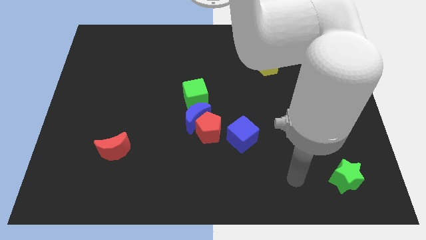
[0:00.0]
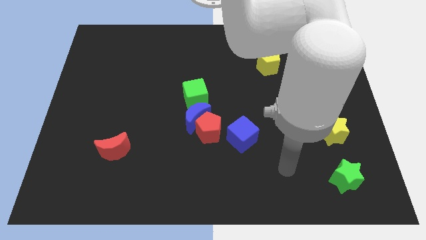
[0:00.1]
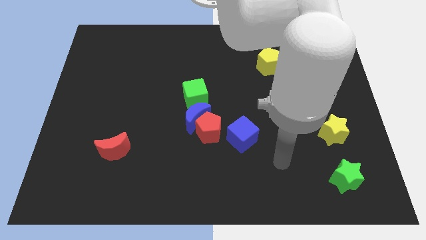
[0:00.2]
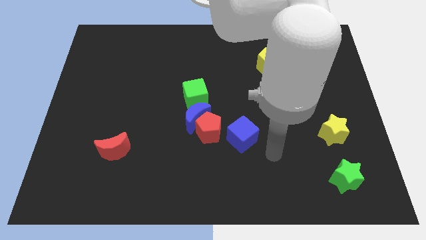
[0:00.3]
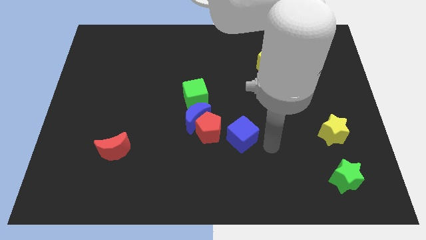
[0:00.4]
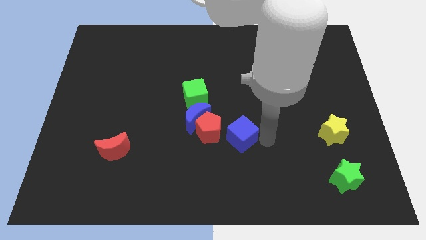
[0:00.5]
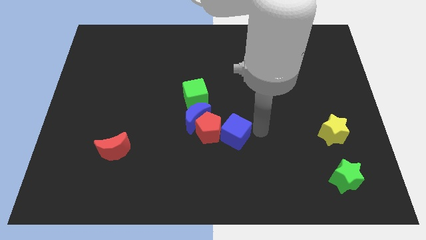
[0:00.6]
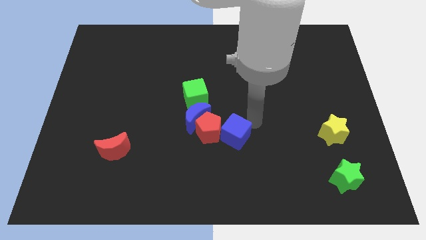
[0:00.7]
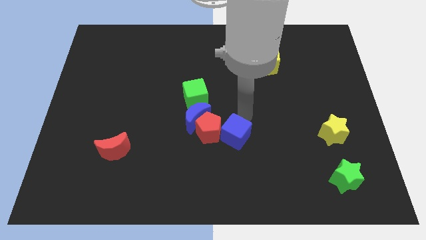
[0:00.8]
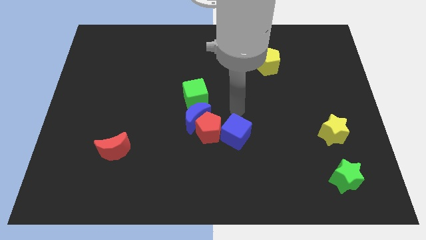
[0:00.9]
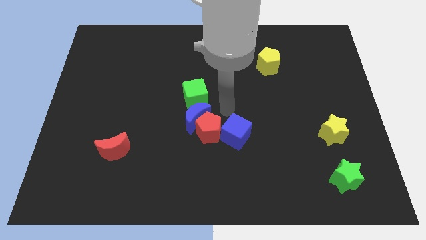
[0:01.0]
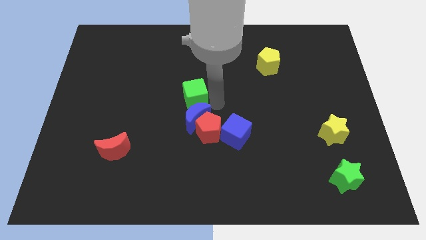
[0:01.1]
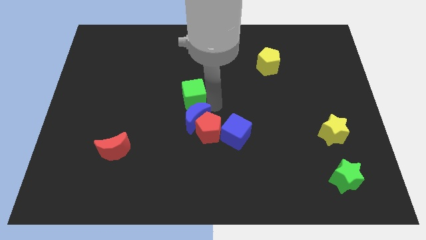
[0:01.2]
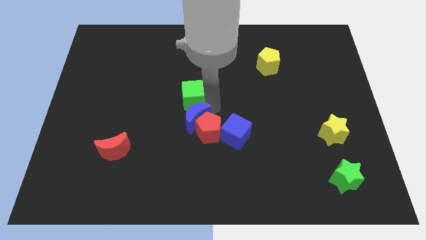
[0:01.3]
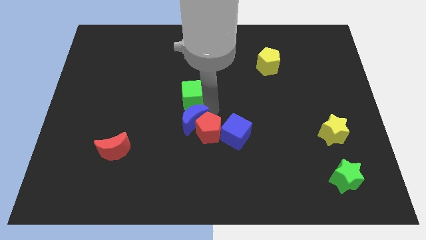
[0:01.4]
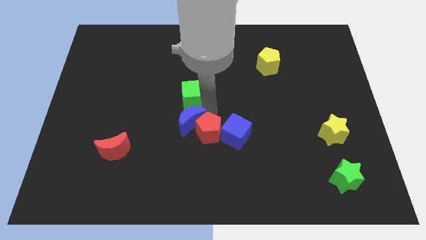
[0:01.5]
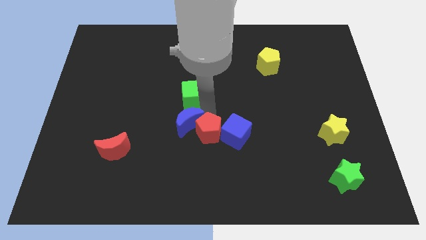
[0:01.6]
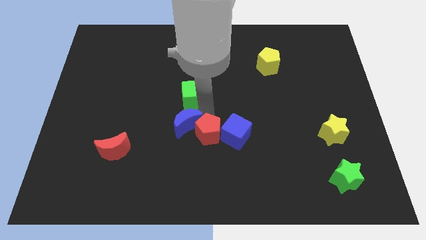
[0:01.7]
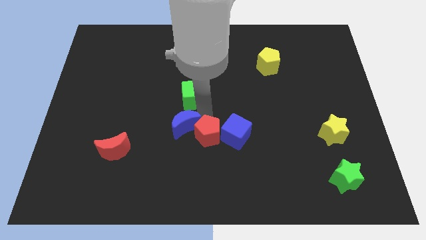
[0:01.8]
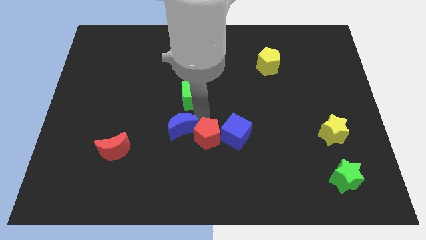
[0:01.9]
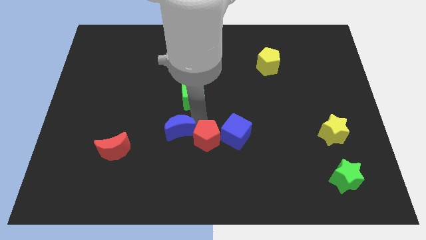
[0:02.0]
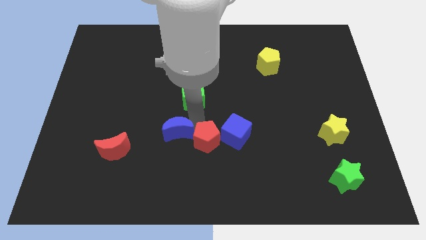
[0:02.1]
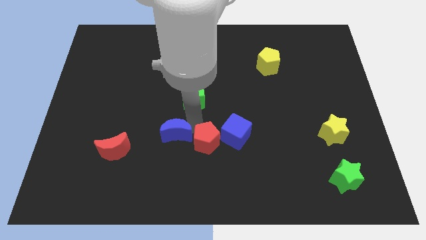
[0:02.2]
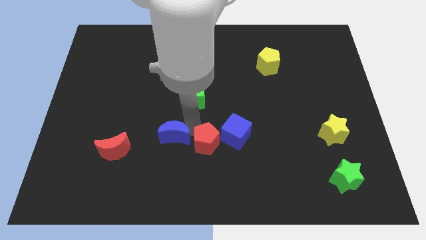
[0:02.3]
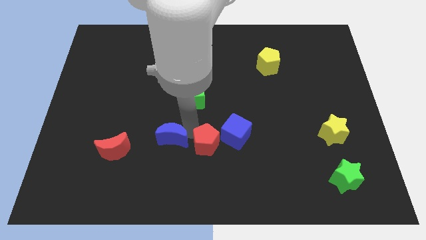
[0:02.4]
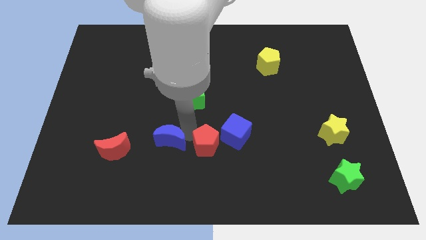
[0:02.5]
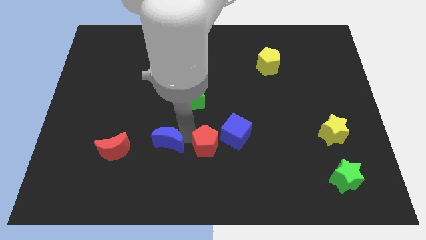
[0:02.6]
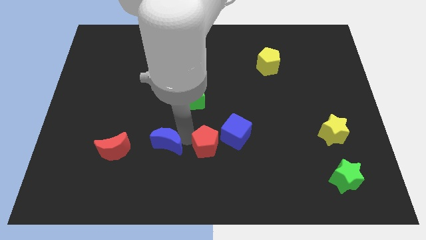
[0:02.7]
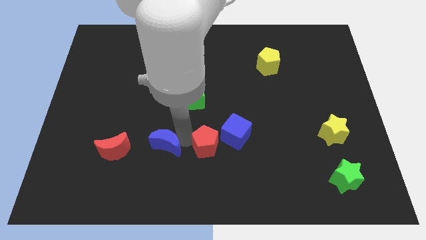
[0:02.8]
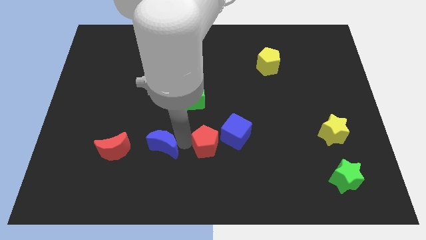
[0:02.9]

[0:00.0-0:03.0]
move the blue moon away from the red pentagon and green cube

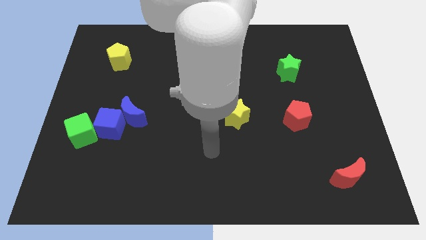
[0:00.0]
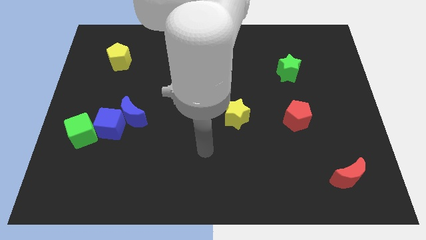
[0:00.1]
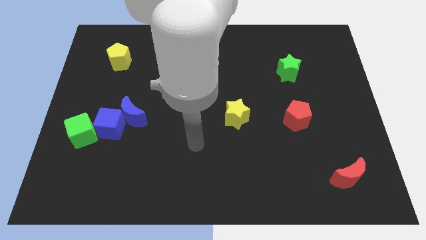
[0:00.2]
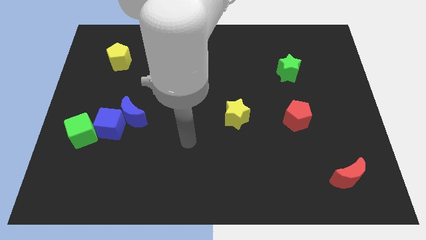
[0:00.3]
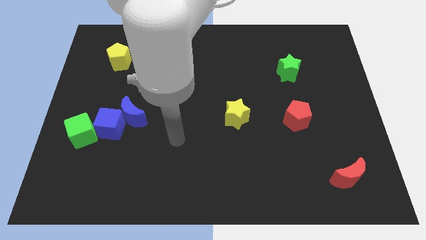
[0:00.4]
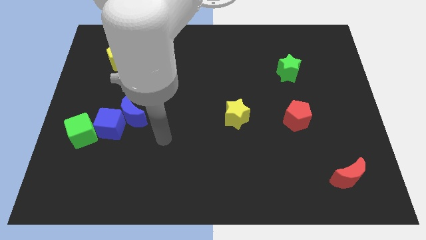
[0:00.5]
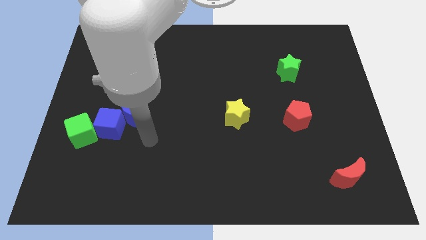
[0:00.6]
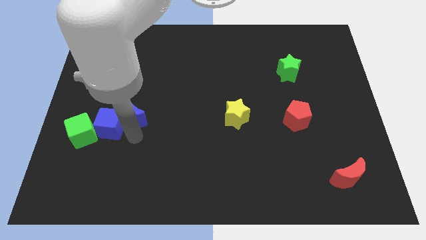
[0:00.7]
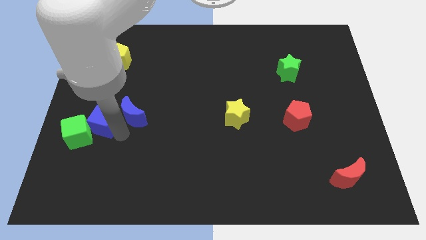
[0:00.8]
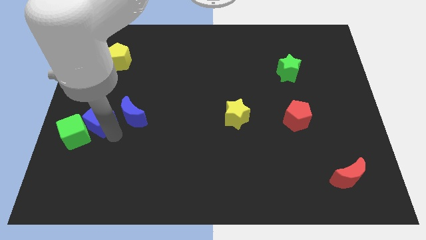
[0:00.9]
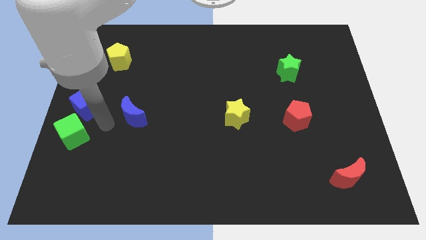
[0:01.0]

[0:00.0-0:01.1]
move the blue moon away from the blue cube

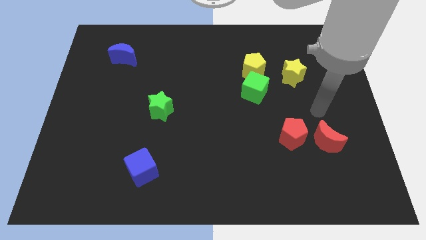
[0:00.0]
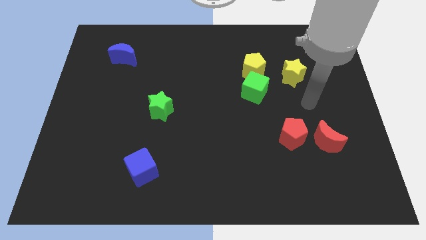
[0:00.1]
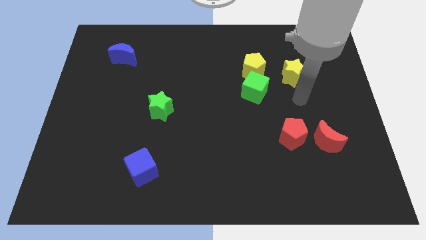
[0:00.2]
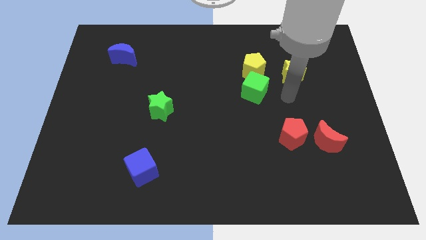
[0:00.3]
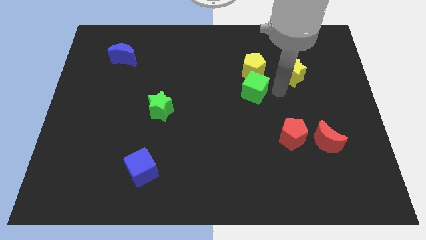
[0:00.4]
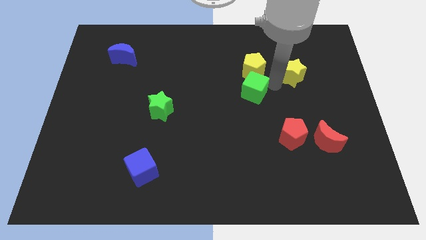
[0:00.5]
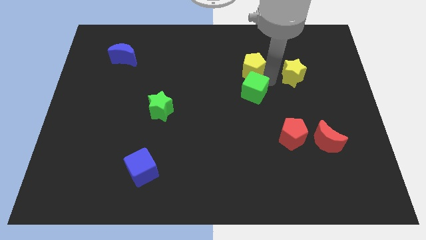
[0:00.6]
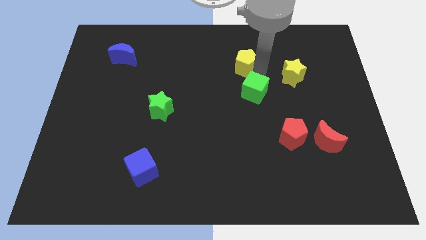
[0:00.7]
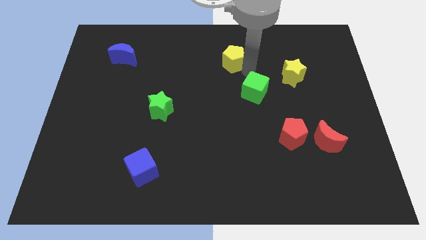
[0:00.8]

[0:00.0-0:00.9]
move the green cube away from the yellow pentagon

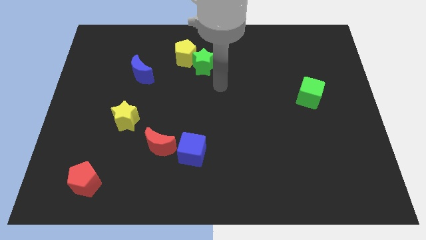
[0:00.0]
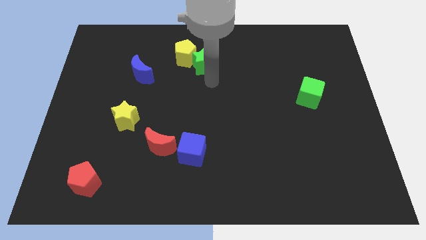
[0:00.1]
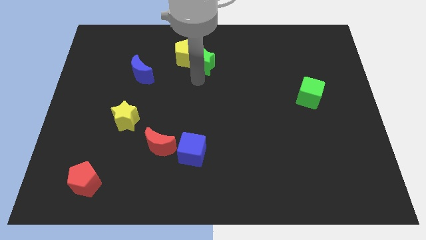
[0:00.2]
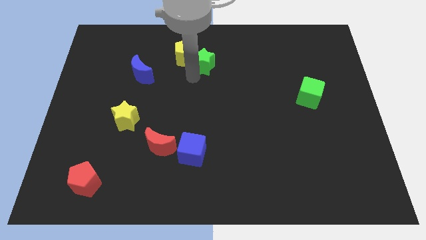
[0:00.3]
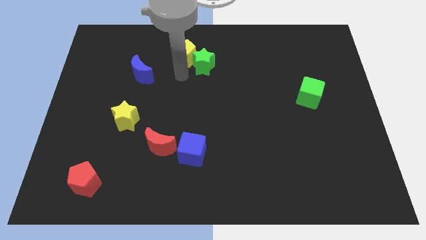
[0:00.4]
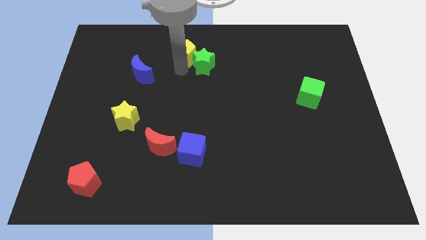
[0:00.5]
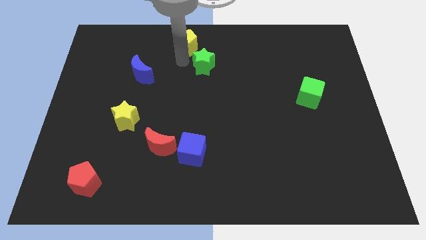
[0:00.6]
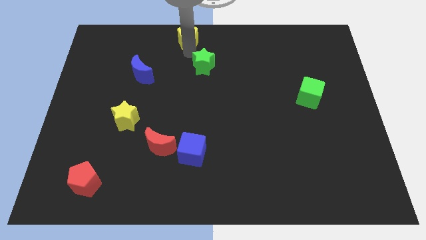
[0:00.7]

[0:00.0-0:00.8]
separate the green star from the yellow pentagon

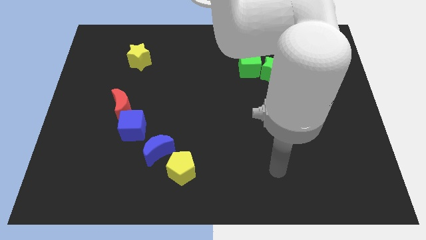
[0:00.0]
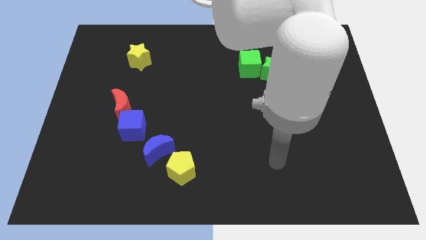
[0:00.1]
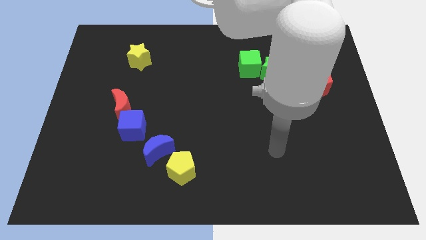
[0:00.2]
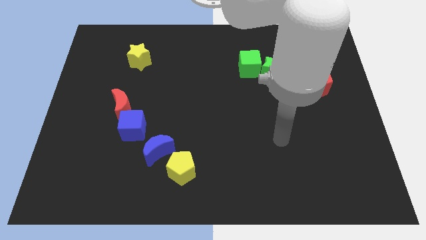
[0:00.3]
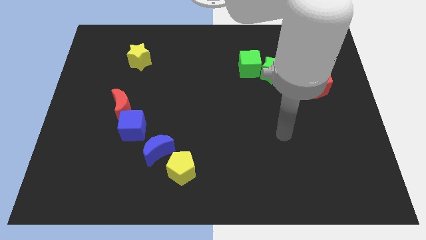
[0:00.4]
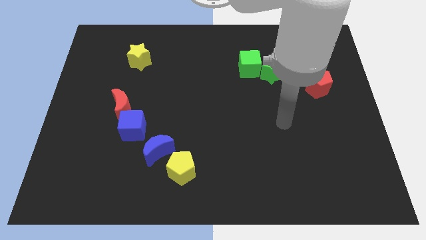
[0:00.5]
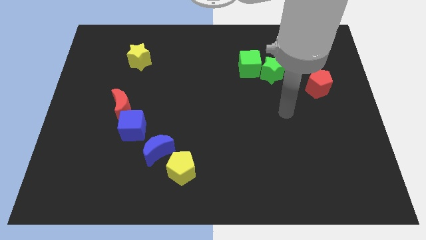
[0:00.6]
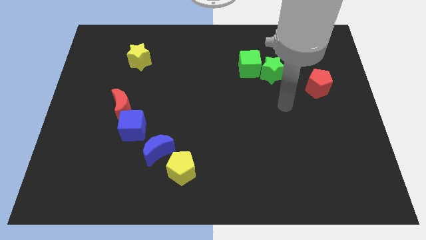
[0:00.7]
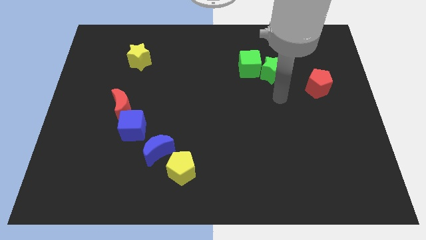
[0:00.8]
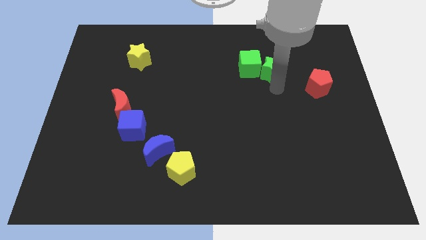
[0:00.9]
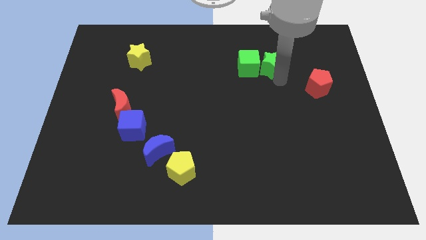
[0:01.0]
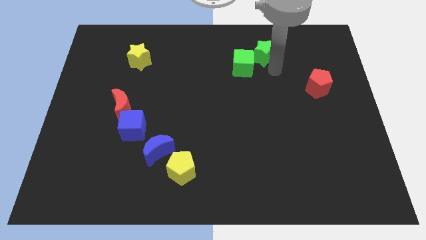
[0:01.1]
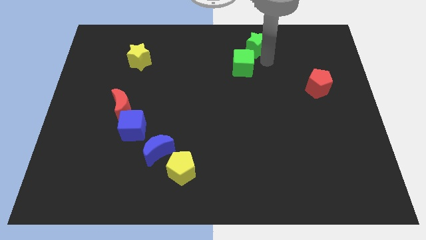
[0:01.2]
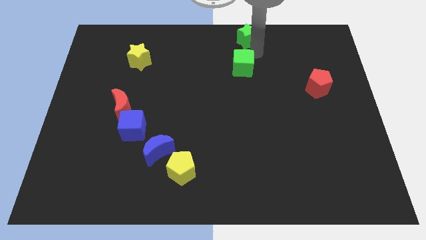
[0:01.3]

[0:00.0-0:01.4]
separate the green cube from the green star

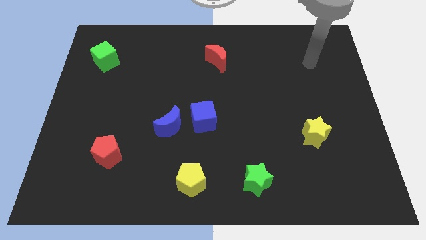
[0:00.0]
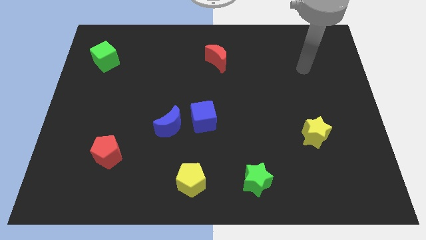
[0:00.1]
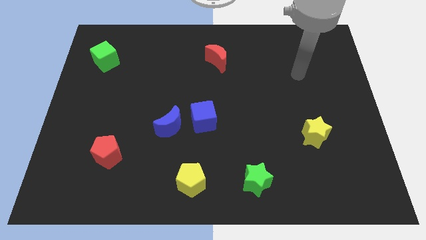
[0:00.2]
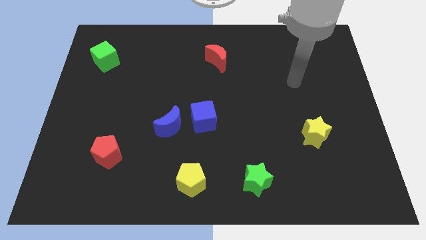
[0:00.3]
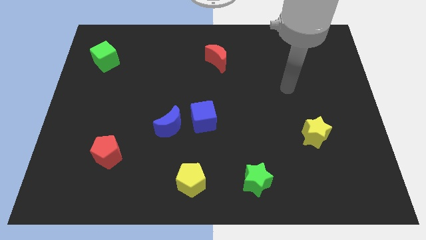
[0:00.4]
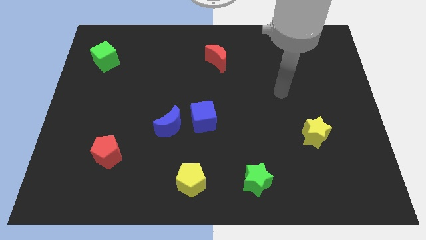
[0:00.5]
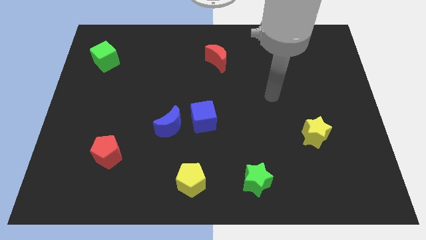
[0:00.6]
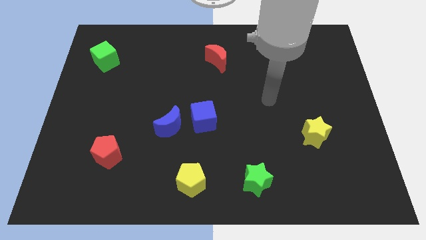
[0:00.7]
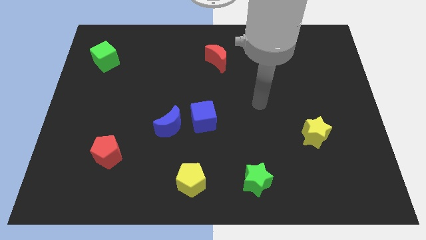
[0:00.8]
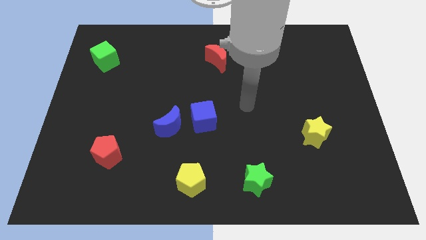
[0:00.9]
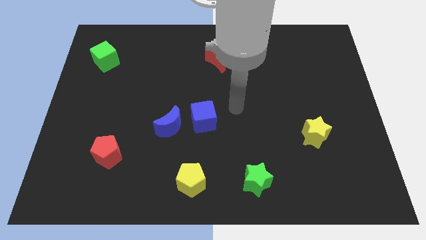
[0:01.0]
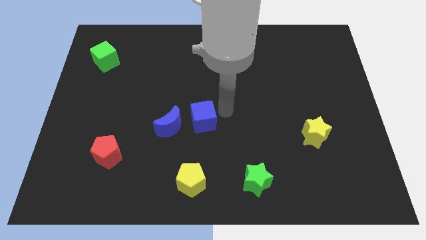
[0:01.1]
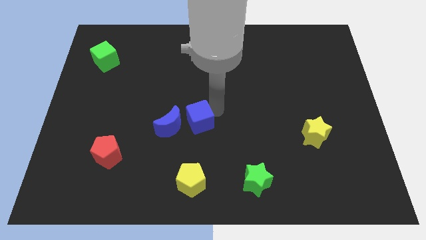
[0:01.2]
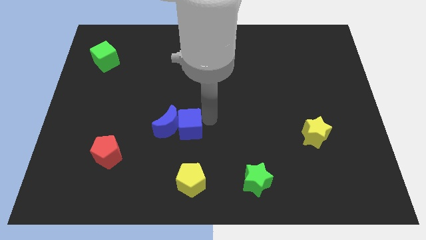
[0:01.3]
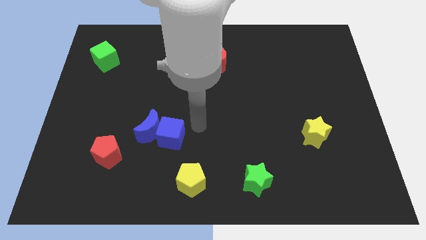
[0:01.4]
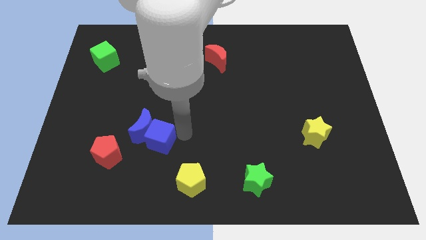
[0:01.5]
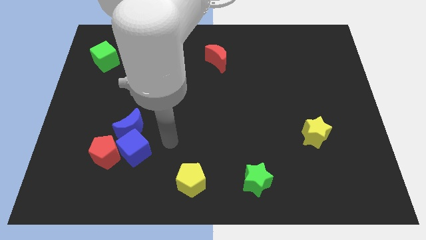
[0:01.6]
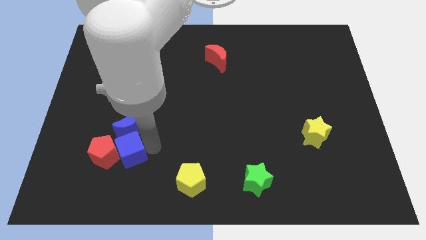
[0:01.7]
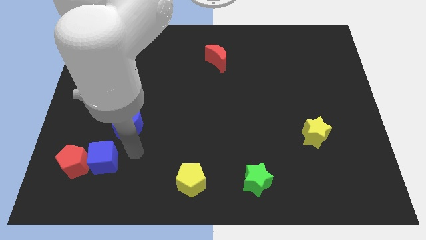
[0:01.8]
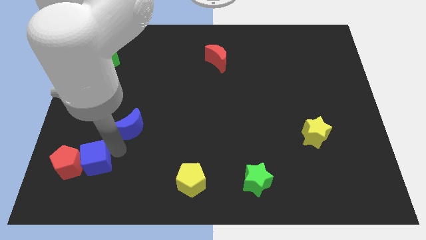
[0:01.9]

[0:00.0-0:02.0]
separate the blue moon from the blue cube
